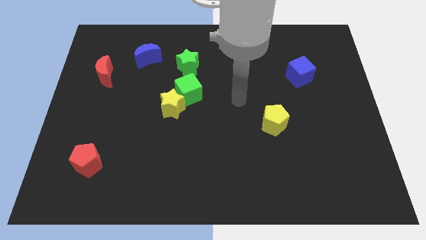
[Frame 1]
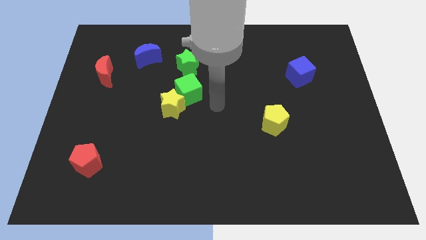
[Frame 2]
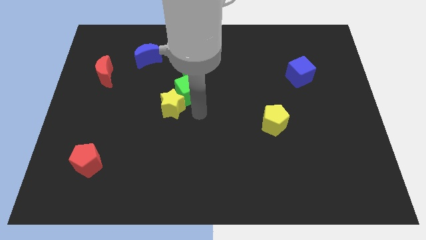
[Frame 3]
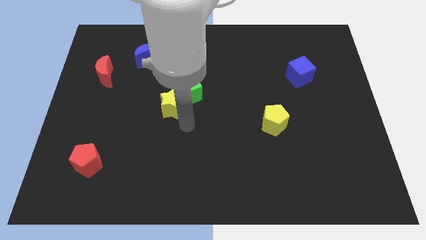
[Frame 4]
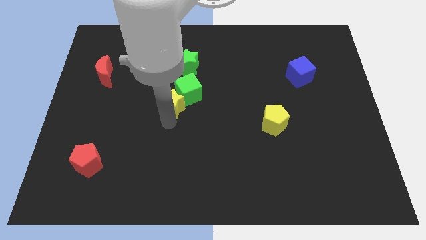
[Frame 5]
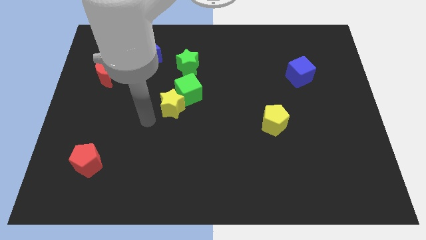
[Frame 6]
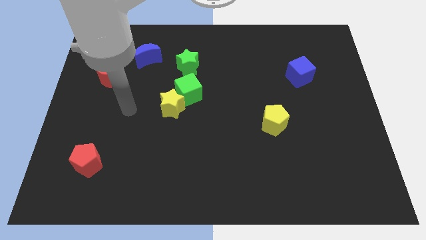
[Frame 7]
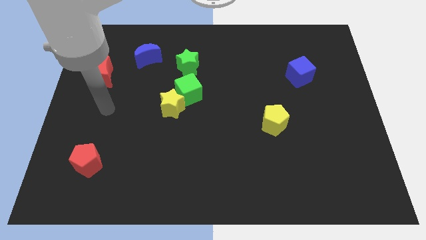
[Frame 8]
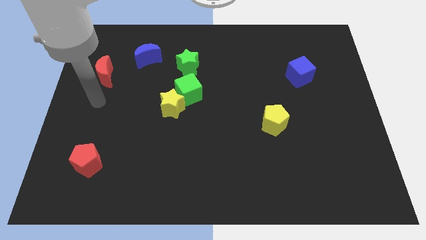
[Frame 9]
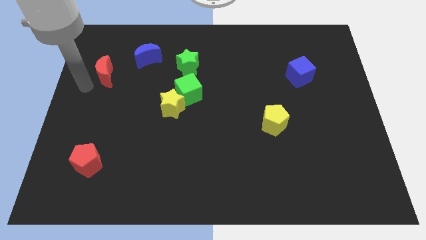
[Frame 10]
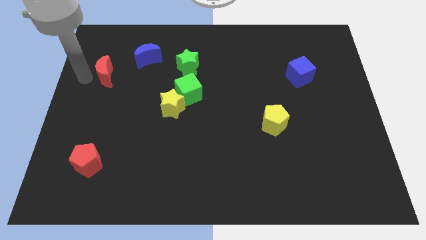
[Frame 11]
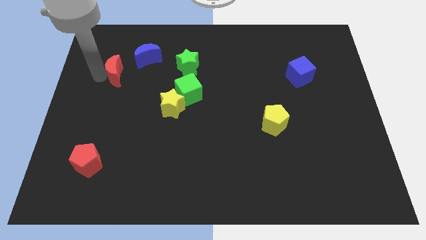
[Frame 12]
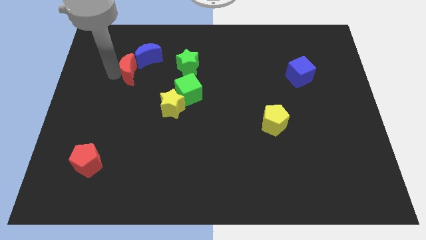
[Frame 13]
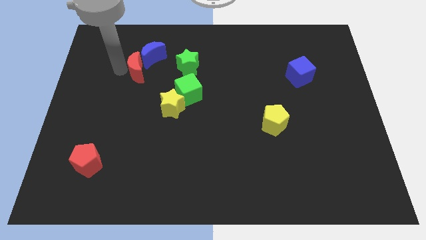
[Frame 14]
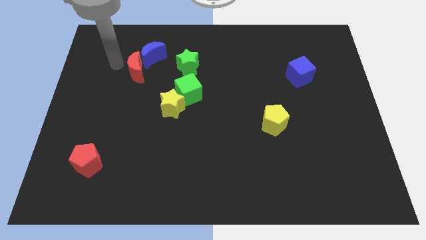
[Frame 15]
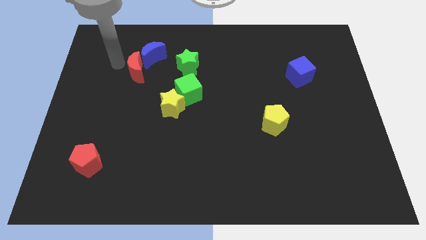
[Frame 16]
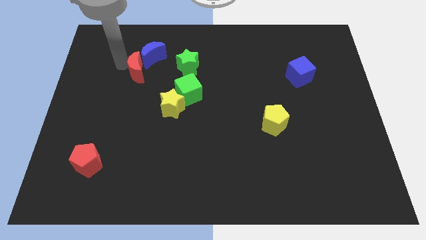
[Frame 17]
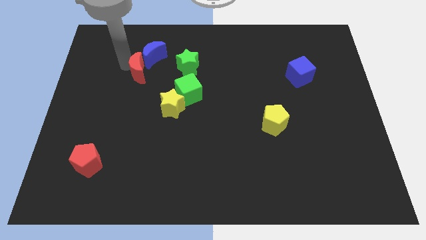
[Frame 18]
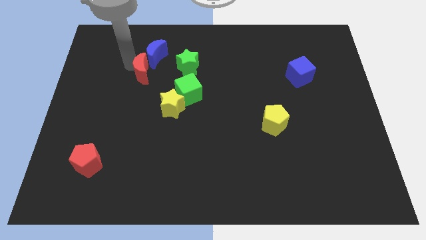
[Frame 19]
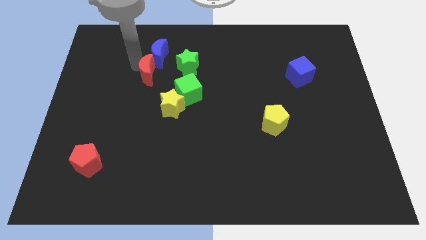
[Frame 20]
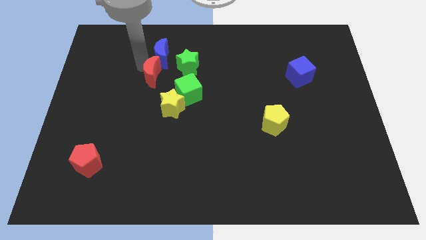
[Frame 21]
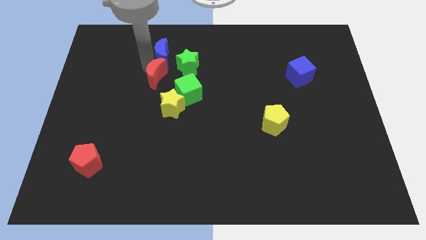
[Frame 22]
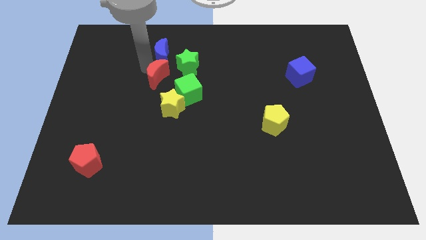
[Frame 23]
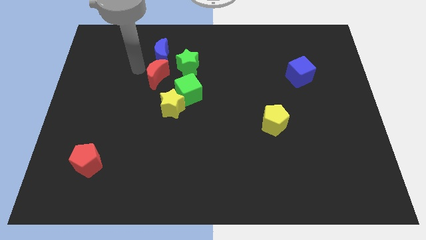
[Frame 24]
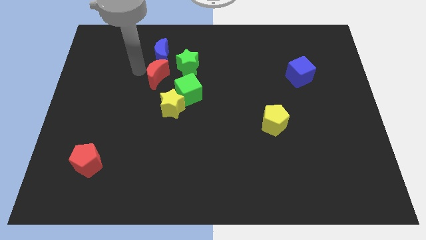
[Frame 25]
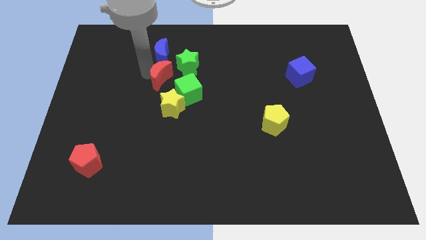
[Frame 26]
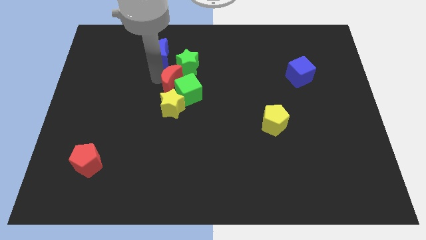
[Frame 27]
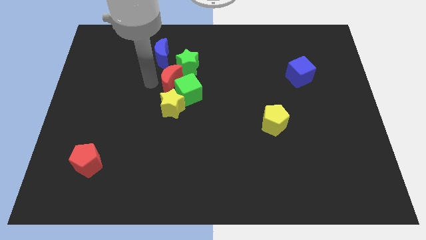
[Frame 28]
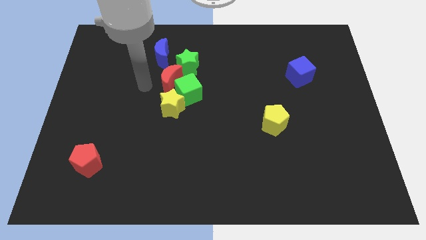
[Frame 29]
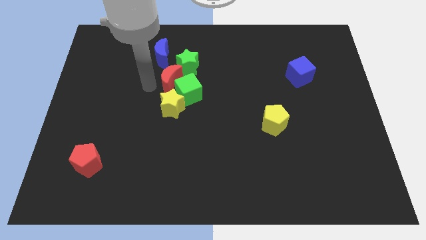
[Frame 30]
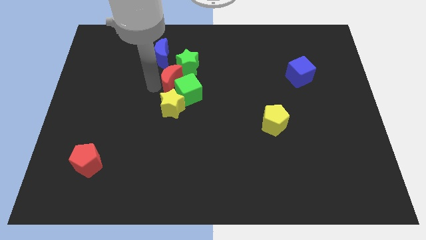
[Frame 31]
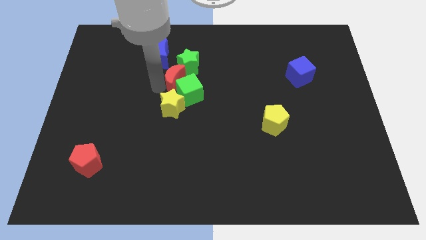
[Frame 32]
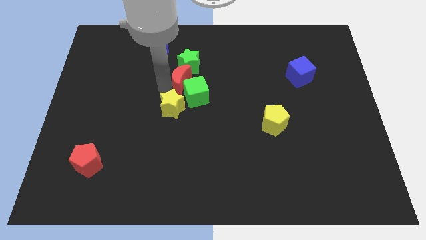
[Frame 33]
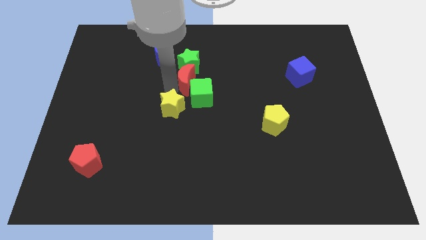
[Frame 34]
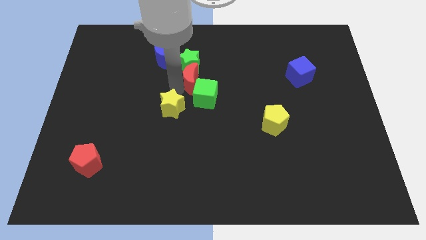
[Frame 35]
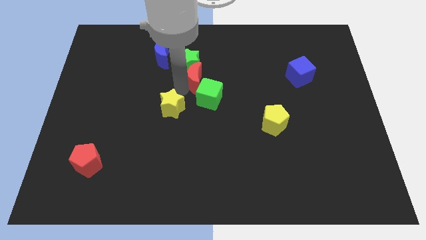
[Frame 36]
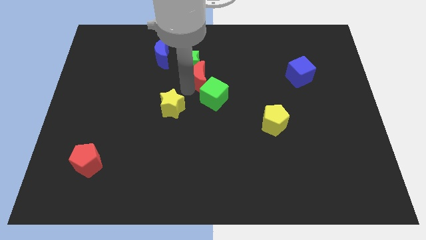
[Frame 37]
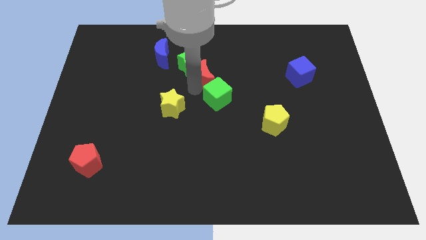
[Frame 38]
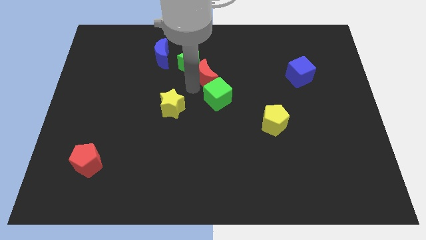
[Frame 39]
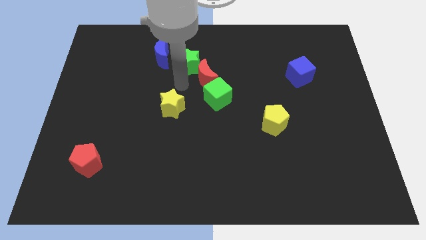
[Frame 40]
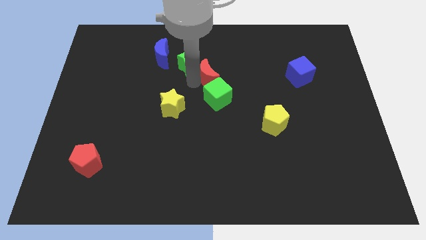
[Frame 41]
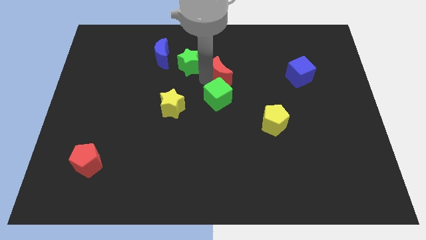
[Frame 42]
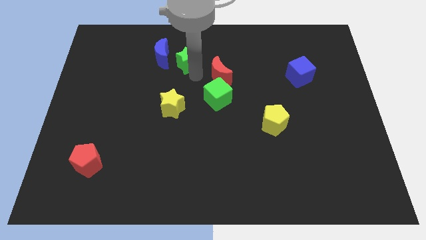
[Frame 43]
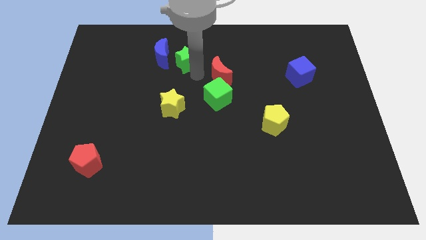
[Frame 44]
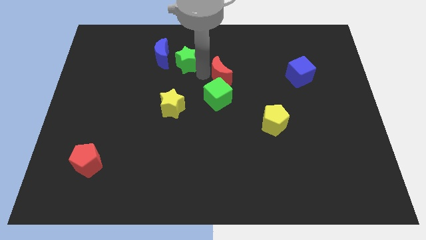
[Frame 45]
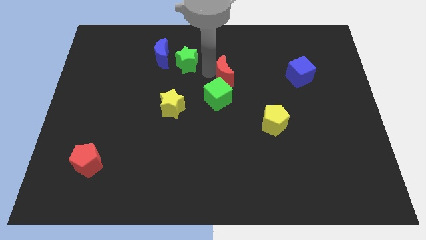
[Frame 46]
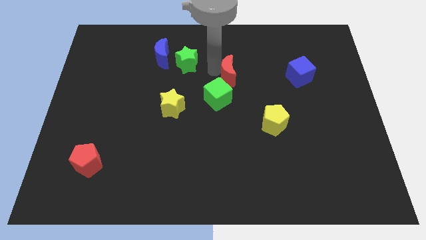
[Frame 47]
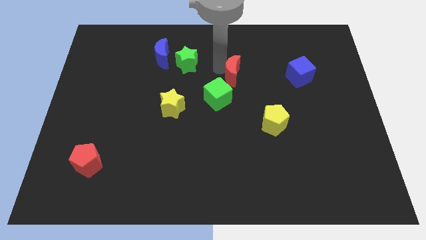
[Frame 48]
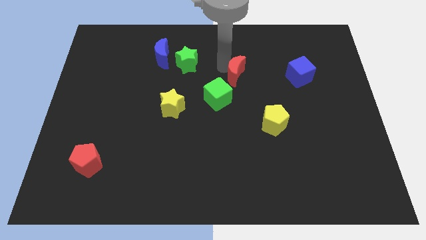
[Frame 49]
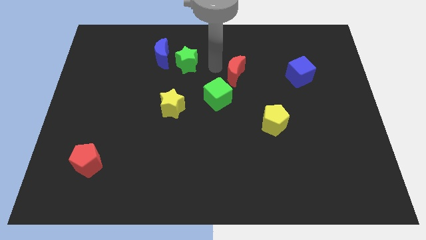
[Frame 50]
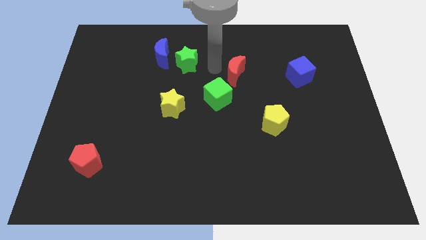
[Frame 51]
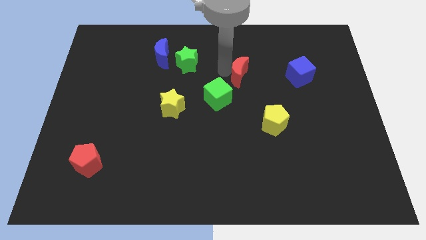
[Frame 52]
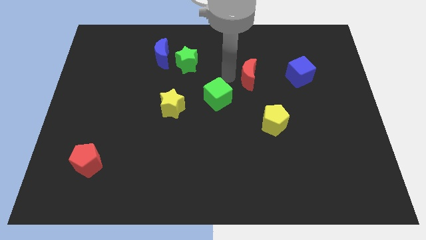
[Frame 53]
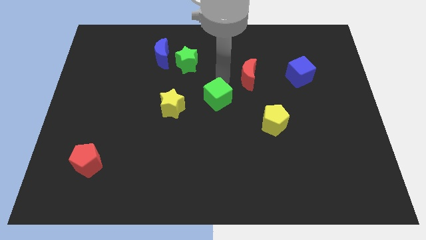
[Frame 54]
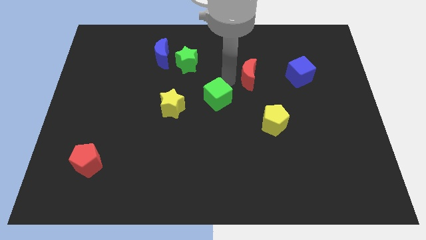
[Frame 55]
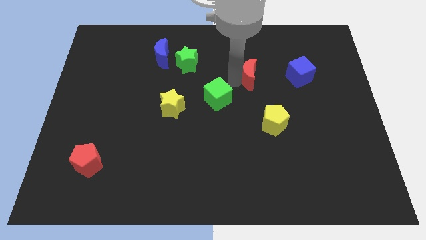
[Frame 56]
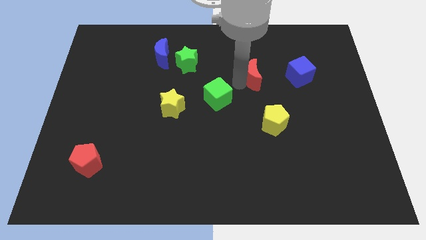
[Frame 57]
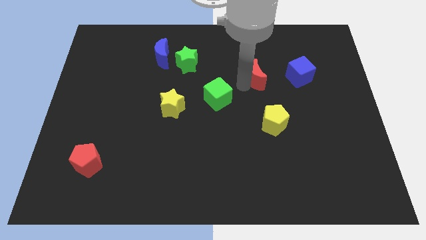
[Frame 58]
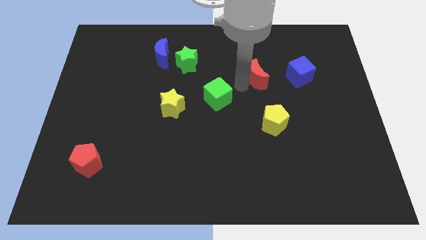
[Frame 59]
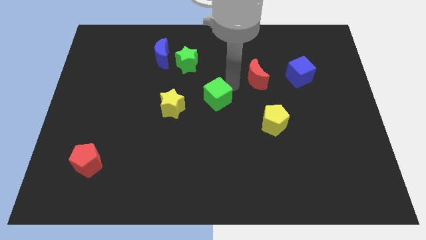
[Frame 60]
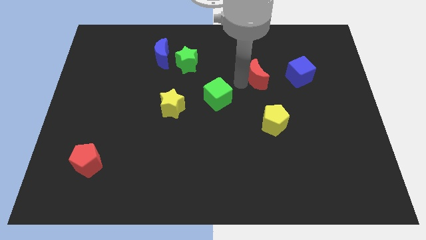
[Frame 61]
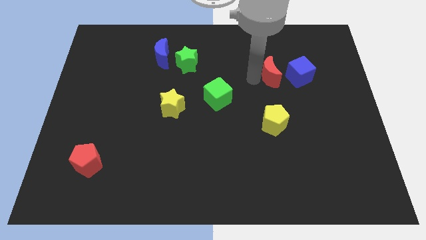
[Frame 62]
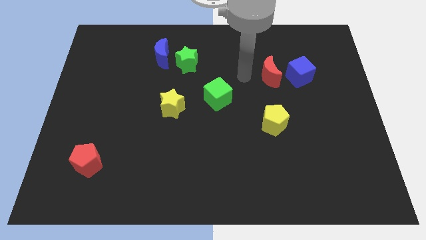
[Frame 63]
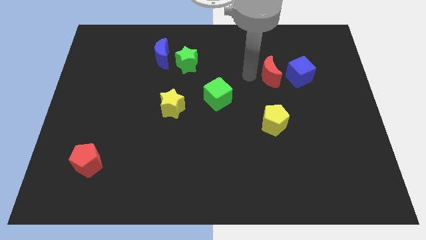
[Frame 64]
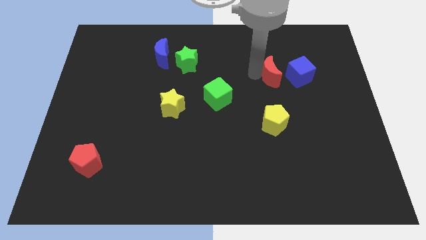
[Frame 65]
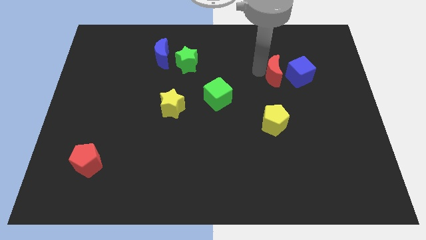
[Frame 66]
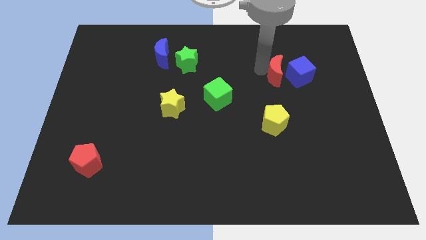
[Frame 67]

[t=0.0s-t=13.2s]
put the red moon close to the blue cube

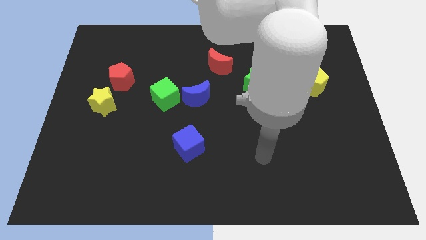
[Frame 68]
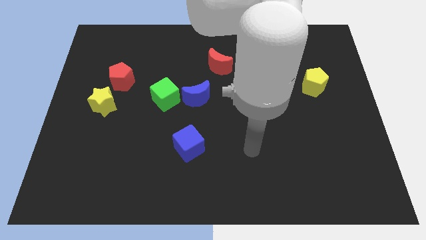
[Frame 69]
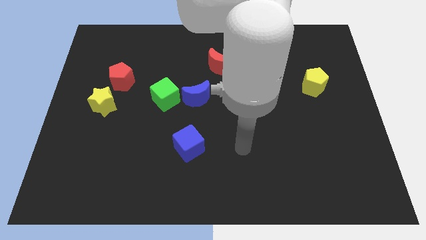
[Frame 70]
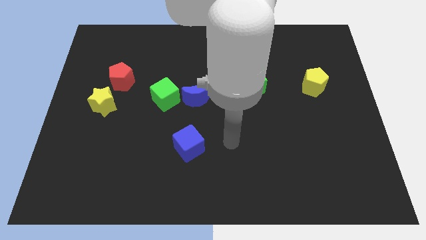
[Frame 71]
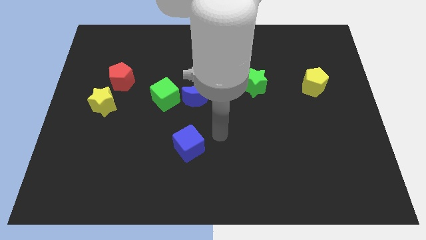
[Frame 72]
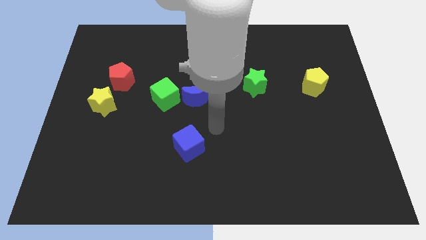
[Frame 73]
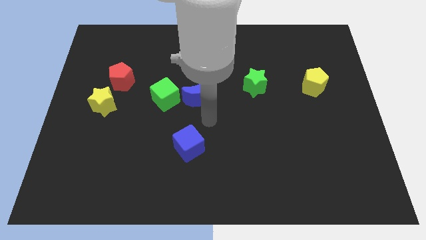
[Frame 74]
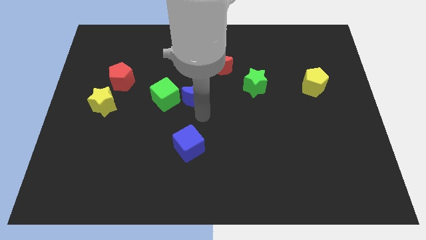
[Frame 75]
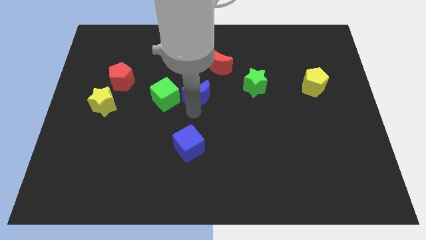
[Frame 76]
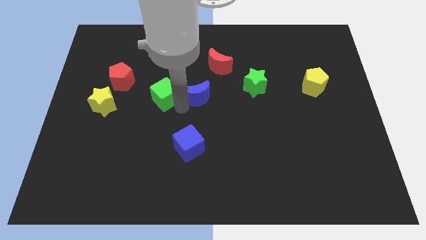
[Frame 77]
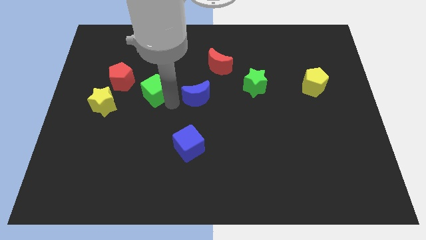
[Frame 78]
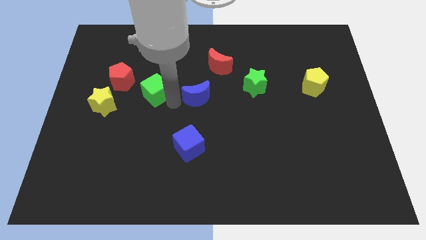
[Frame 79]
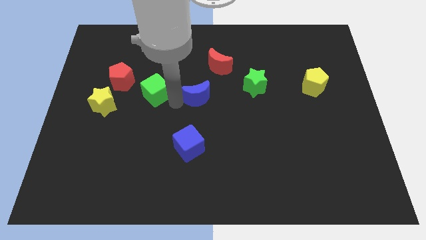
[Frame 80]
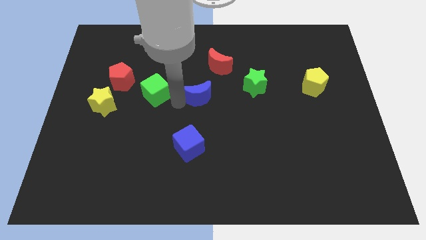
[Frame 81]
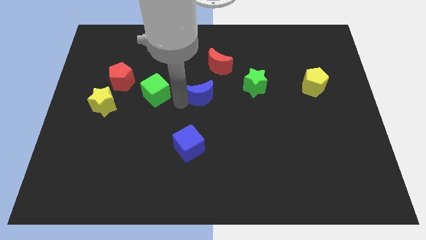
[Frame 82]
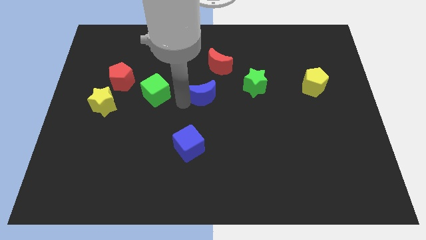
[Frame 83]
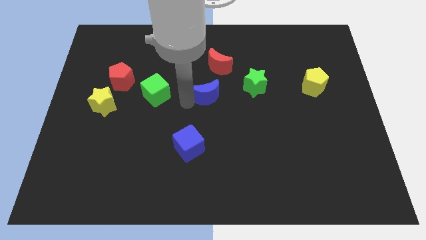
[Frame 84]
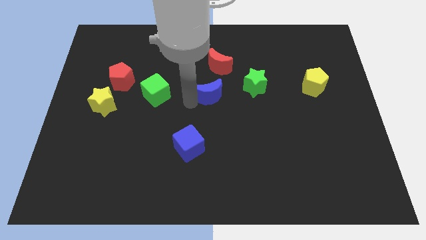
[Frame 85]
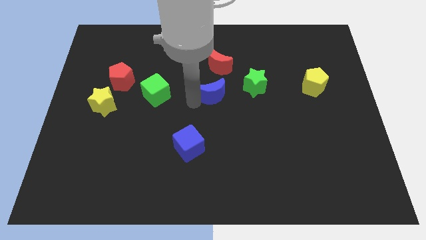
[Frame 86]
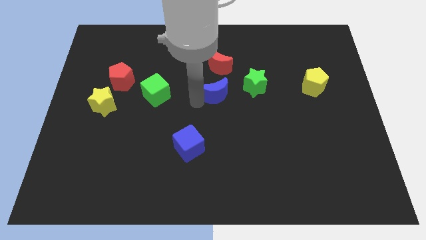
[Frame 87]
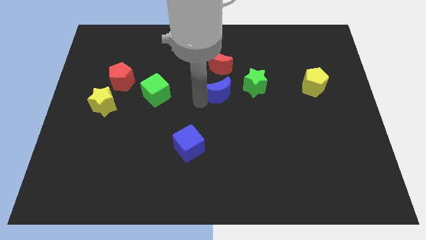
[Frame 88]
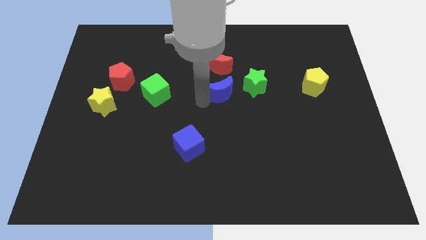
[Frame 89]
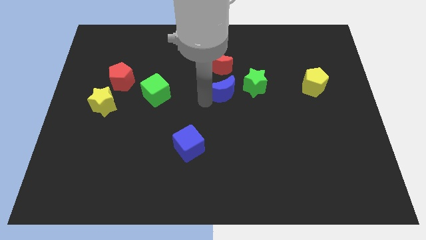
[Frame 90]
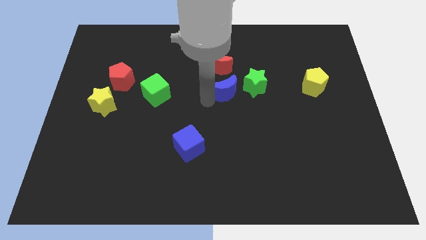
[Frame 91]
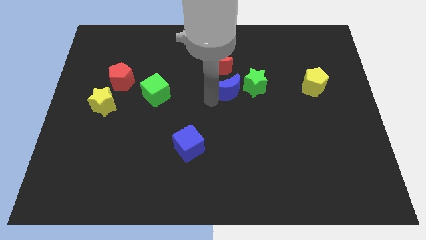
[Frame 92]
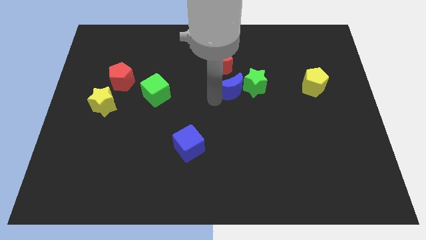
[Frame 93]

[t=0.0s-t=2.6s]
slide the blue moon next to the green star
